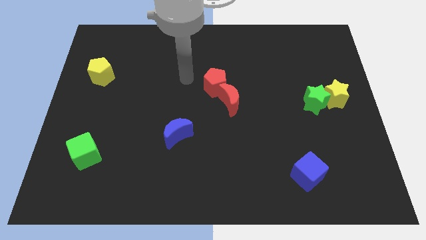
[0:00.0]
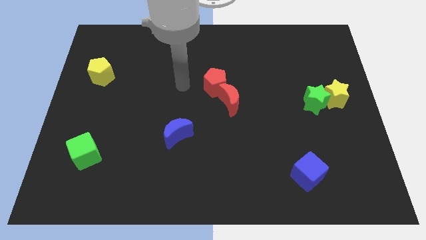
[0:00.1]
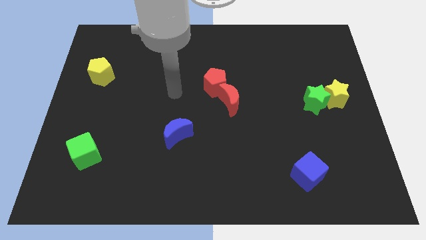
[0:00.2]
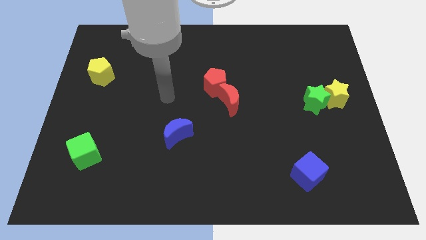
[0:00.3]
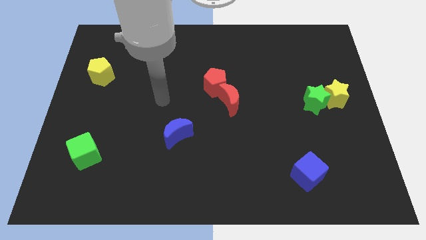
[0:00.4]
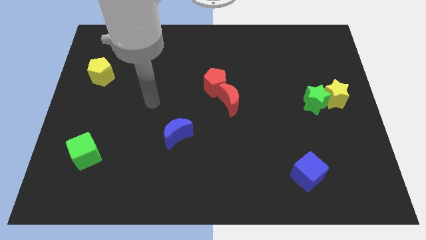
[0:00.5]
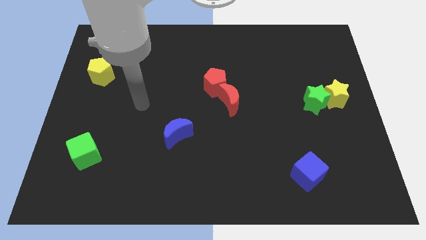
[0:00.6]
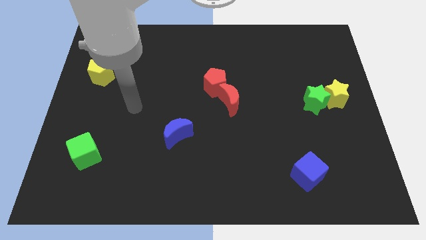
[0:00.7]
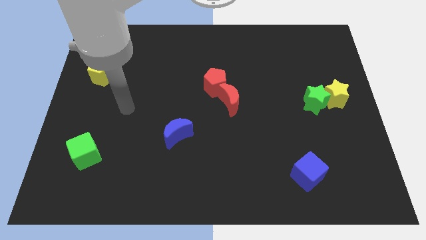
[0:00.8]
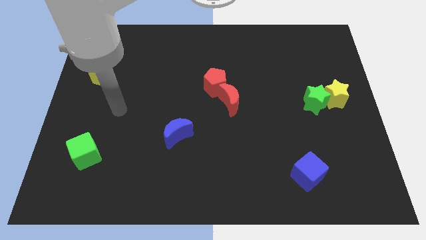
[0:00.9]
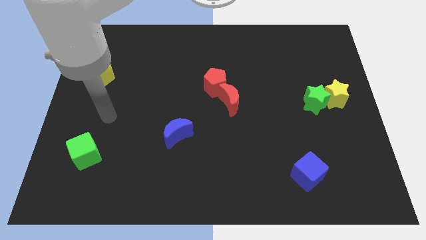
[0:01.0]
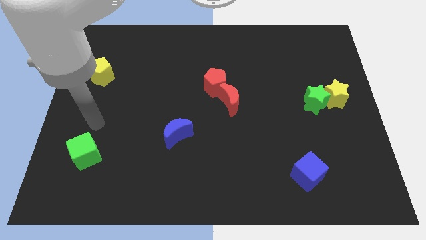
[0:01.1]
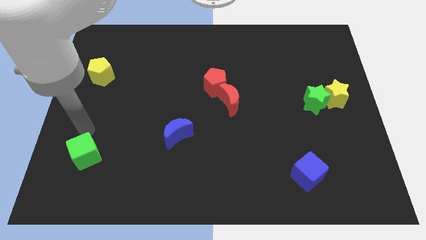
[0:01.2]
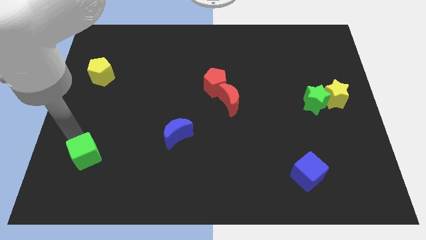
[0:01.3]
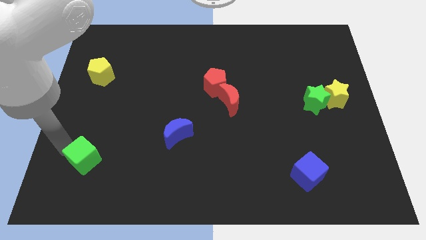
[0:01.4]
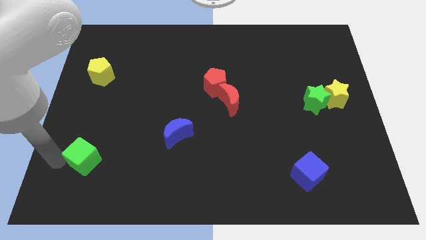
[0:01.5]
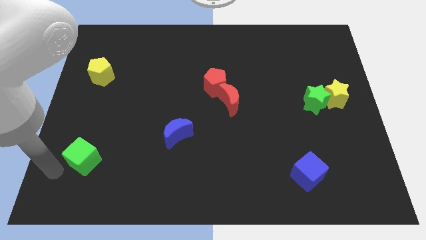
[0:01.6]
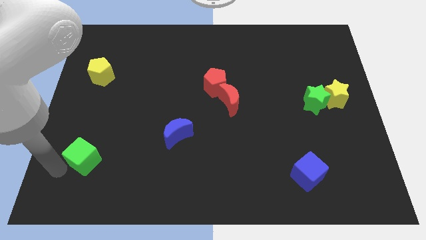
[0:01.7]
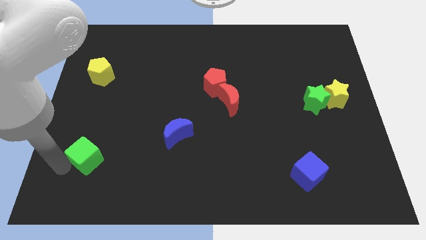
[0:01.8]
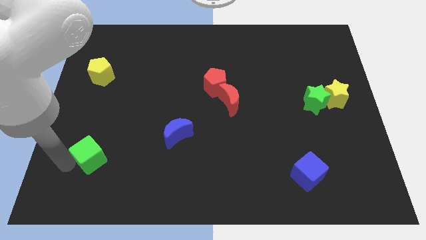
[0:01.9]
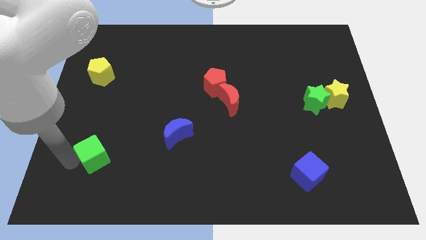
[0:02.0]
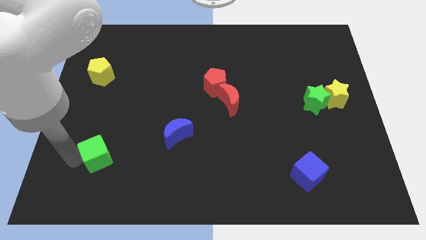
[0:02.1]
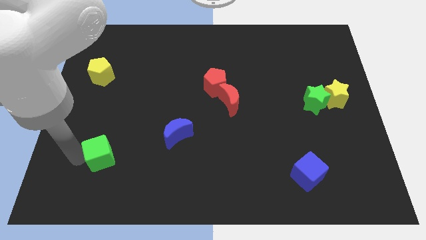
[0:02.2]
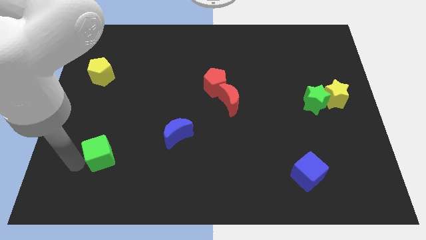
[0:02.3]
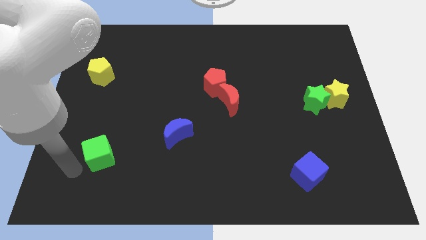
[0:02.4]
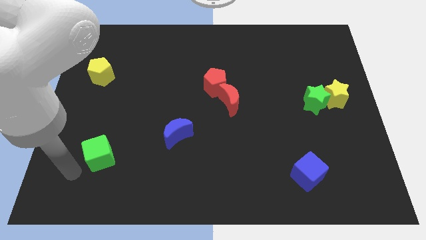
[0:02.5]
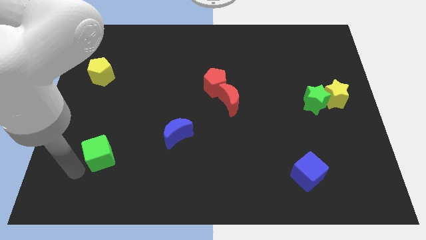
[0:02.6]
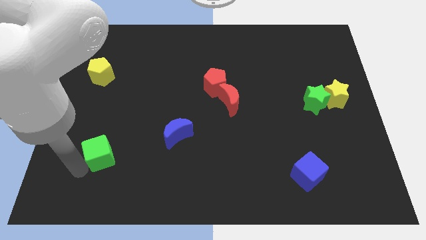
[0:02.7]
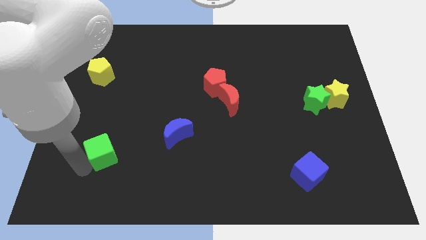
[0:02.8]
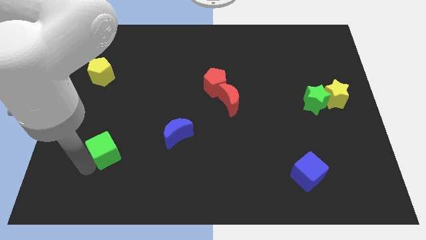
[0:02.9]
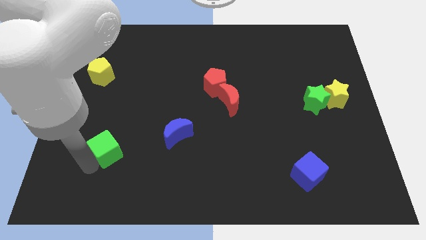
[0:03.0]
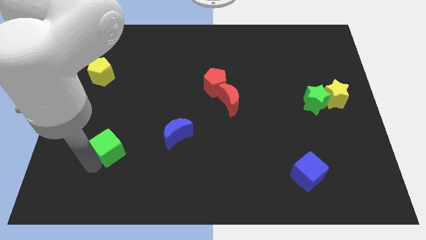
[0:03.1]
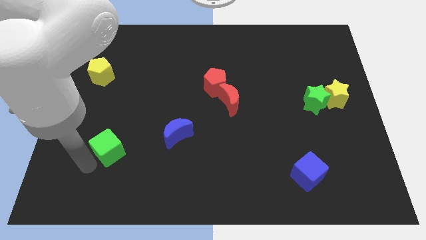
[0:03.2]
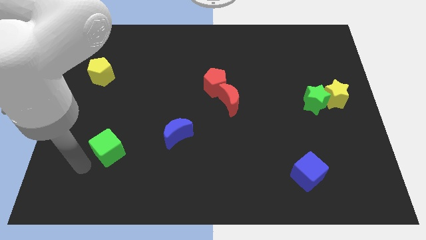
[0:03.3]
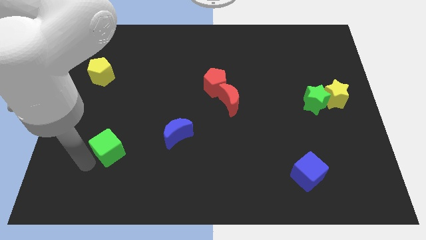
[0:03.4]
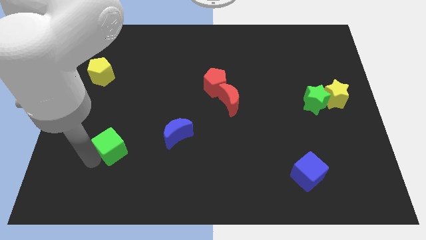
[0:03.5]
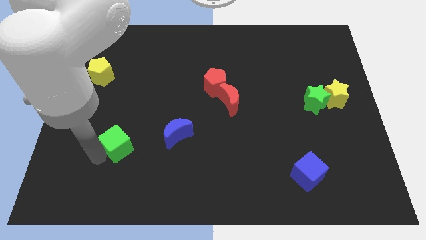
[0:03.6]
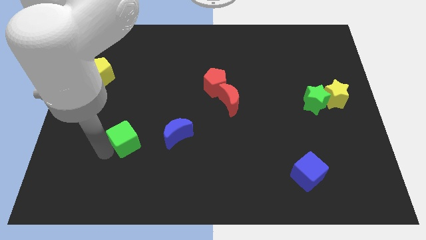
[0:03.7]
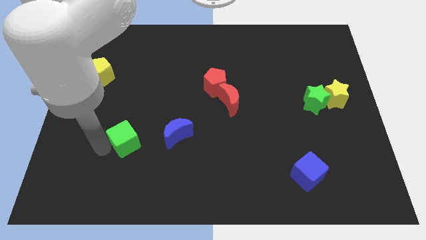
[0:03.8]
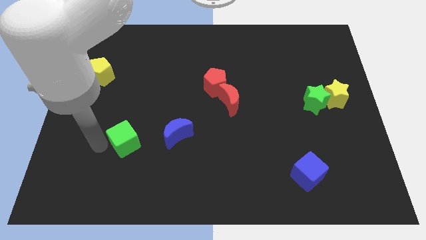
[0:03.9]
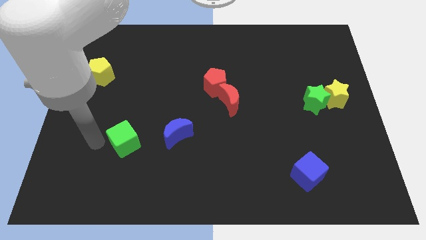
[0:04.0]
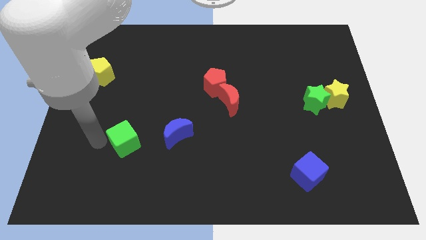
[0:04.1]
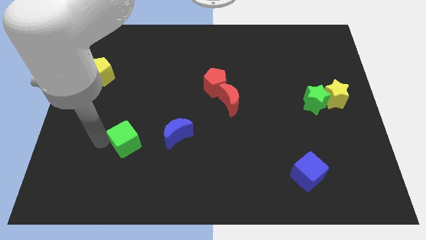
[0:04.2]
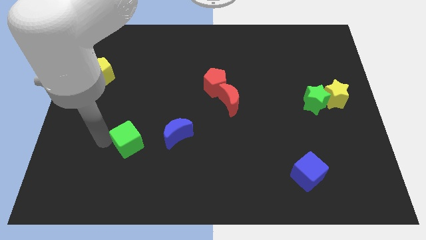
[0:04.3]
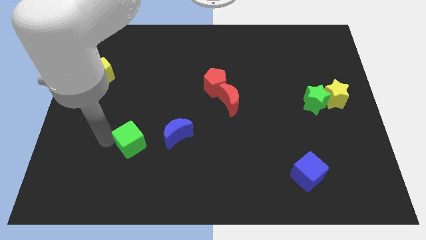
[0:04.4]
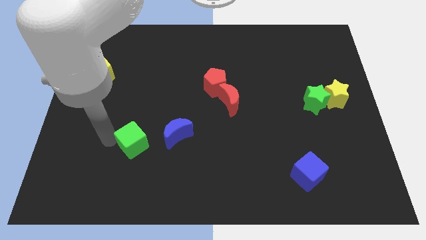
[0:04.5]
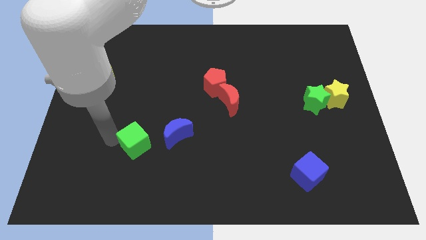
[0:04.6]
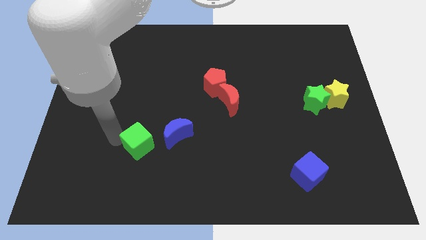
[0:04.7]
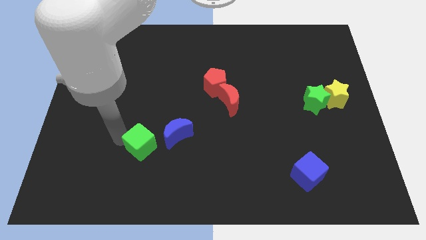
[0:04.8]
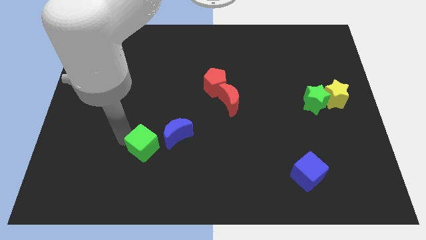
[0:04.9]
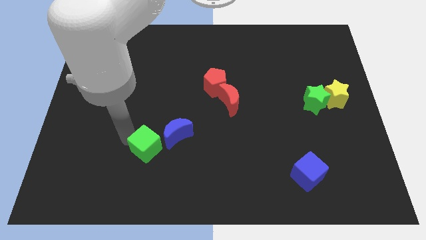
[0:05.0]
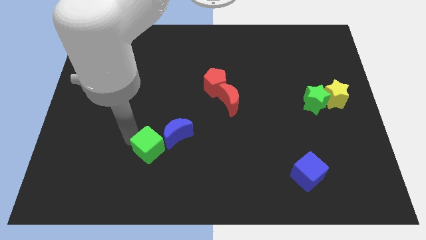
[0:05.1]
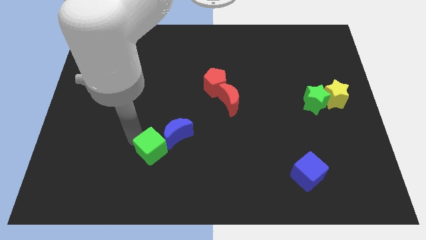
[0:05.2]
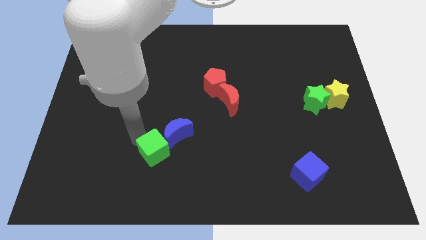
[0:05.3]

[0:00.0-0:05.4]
put the green cube to the blue moon

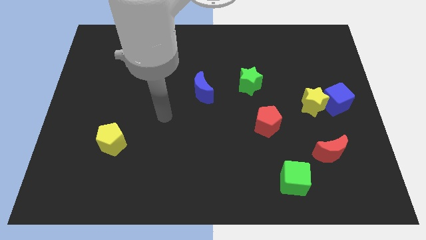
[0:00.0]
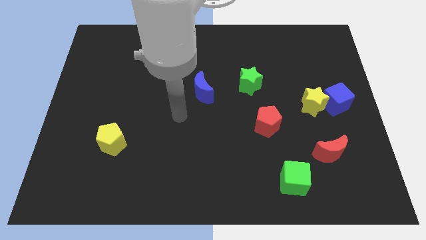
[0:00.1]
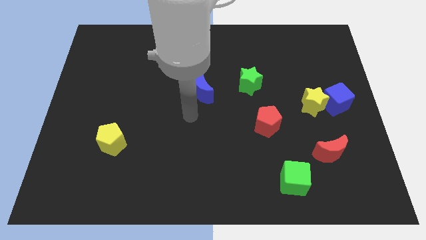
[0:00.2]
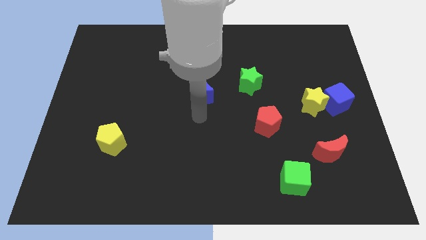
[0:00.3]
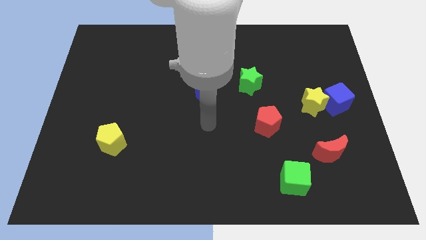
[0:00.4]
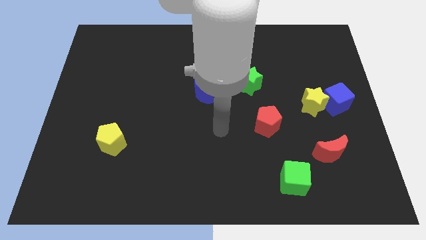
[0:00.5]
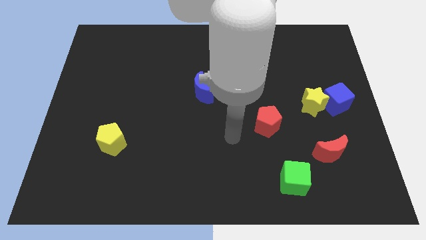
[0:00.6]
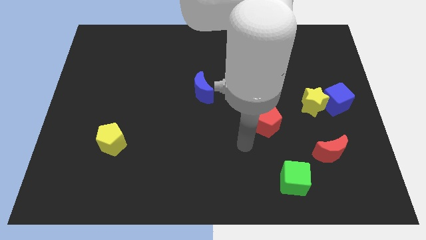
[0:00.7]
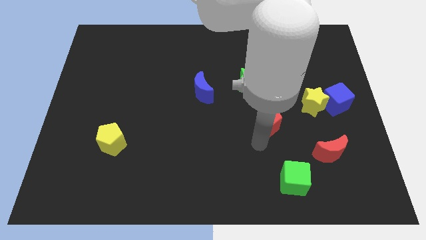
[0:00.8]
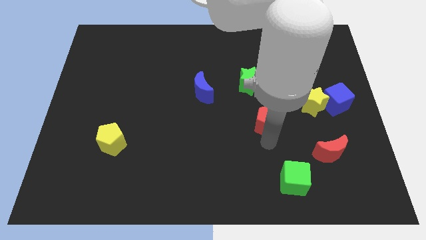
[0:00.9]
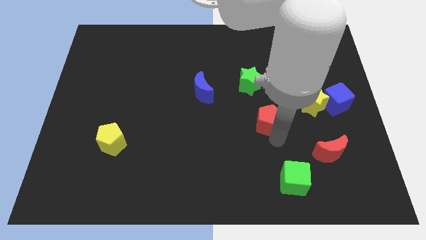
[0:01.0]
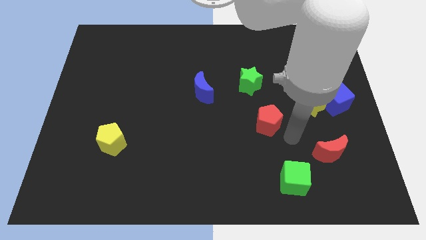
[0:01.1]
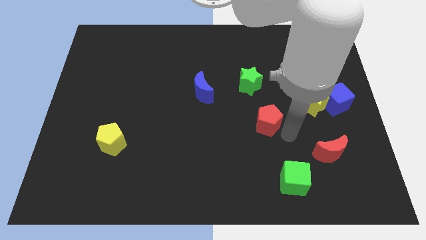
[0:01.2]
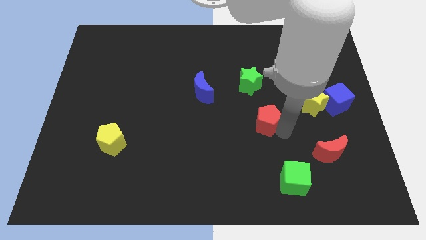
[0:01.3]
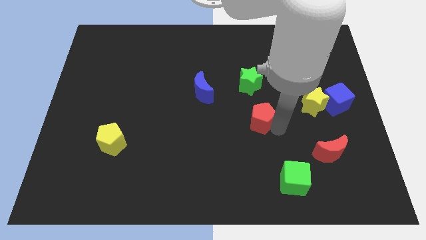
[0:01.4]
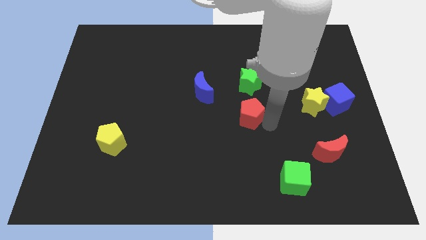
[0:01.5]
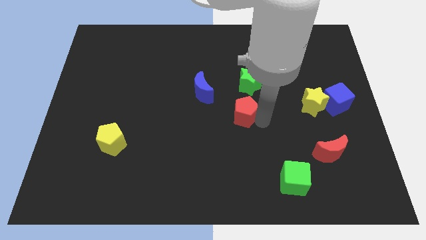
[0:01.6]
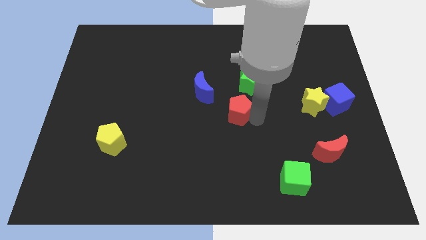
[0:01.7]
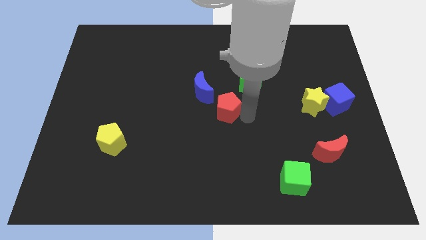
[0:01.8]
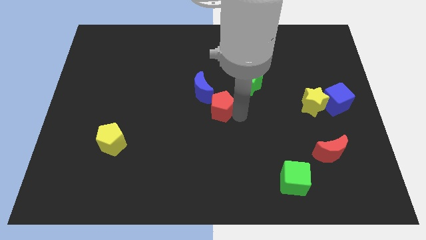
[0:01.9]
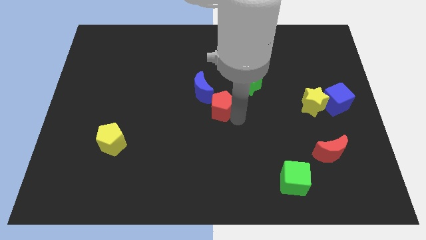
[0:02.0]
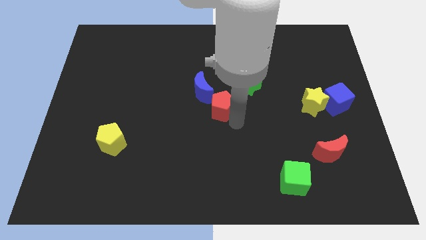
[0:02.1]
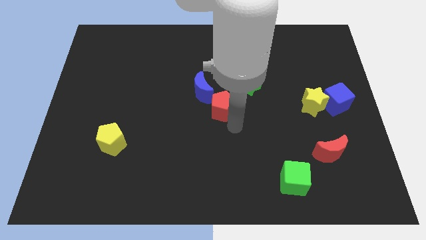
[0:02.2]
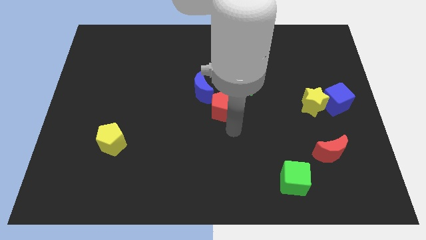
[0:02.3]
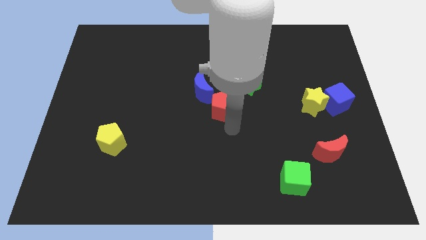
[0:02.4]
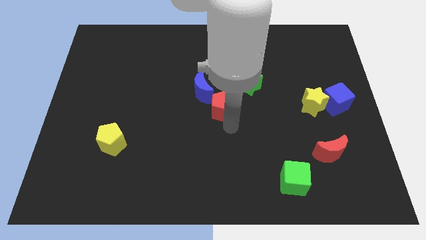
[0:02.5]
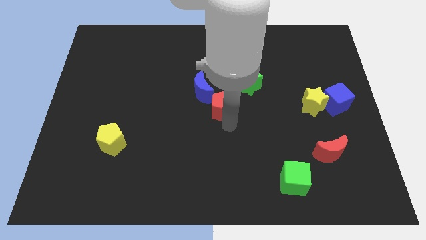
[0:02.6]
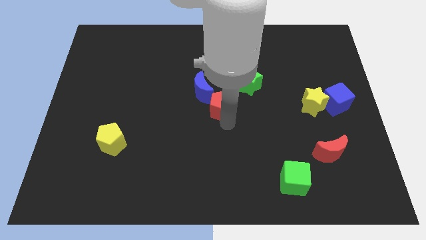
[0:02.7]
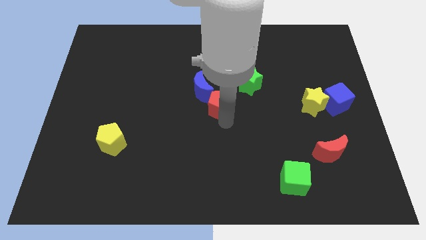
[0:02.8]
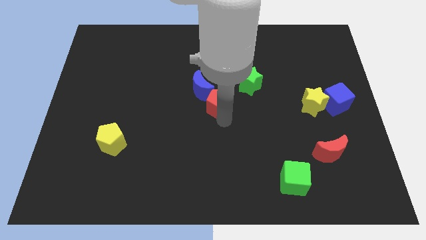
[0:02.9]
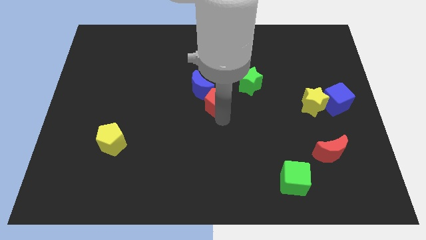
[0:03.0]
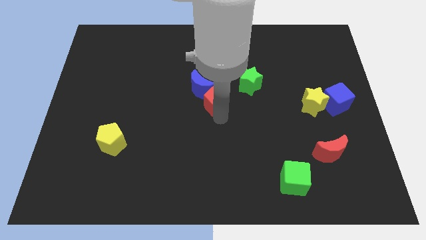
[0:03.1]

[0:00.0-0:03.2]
move the red pentagon next to the blue moon
